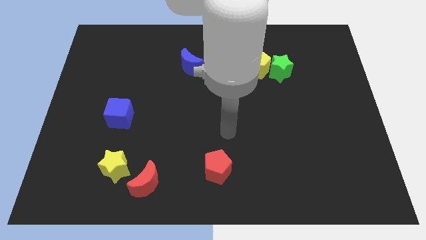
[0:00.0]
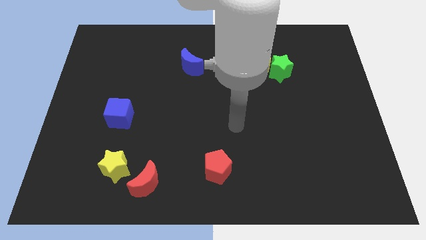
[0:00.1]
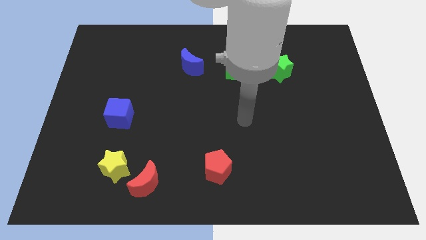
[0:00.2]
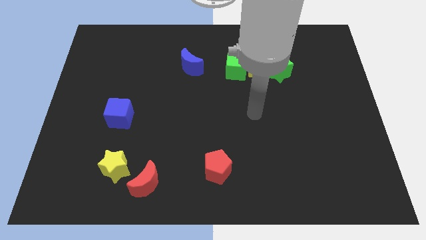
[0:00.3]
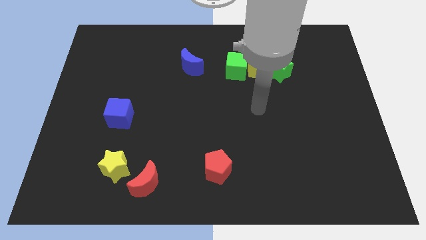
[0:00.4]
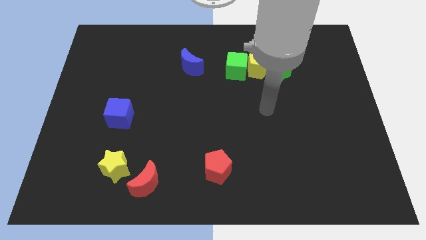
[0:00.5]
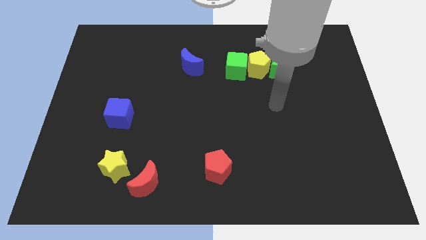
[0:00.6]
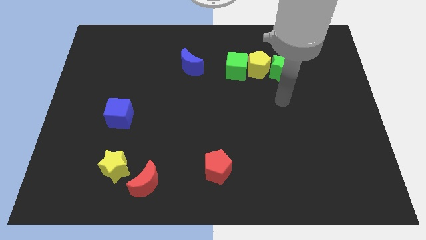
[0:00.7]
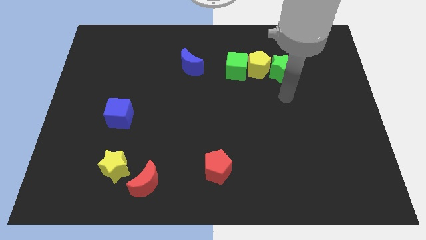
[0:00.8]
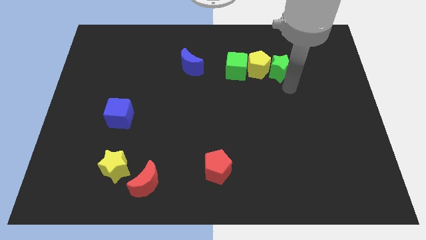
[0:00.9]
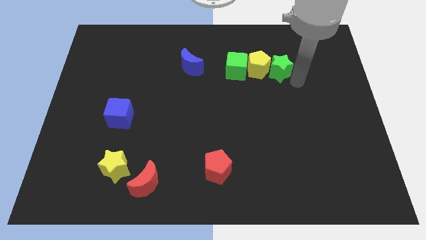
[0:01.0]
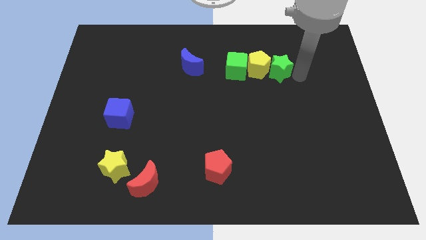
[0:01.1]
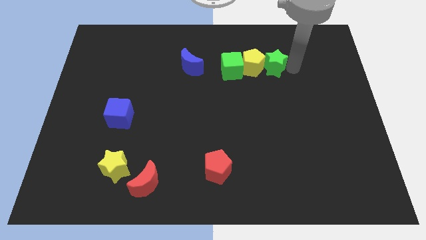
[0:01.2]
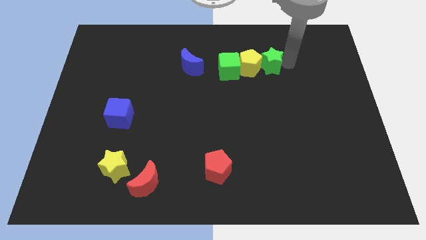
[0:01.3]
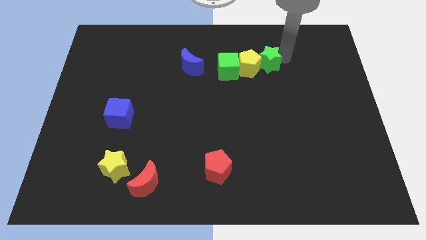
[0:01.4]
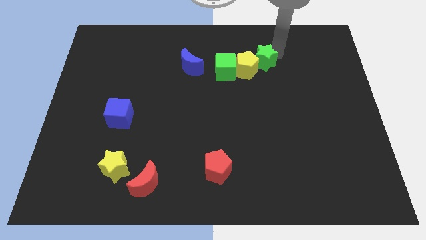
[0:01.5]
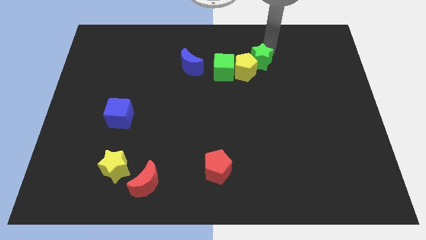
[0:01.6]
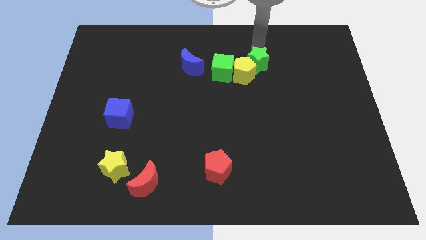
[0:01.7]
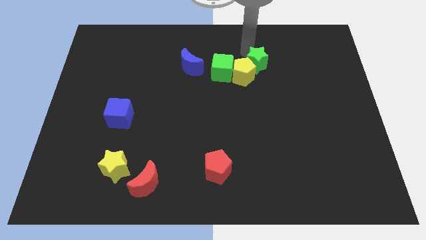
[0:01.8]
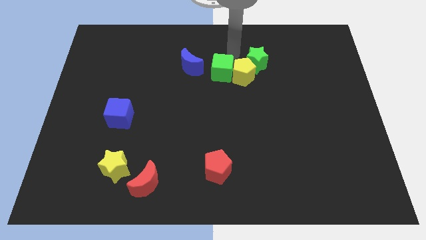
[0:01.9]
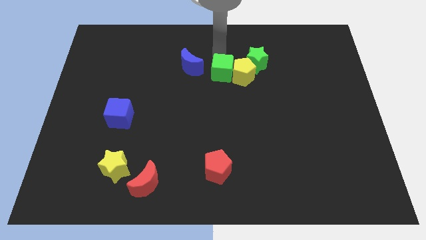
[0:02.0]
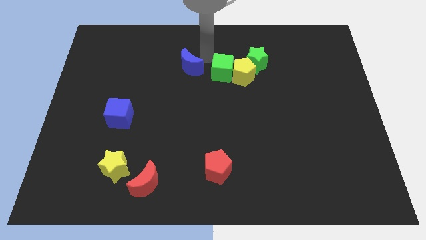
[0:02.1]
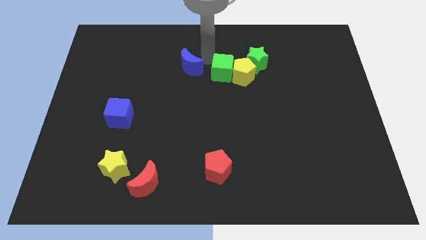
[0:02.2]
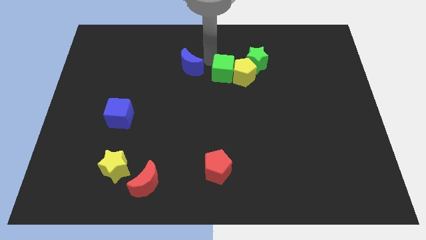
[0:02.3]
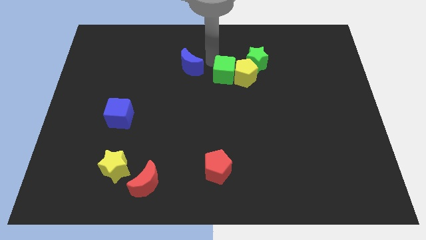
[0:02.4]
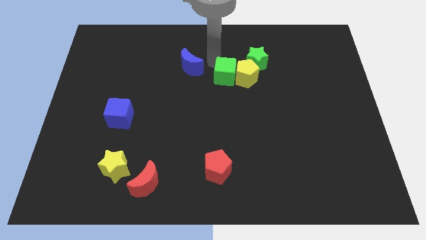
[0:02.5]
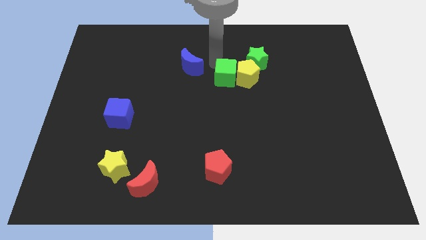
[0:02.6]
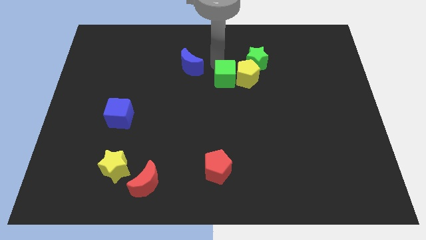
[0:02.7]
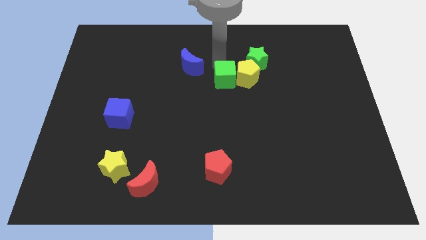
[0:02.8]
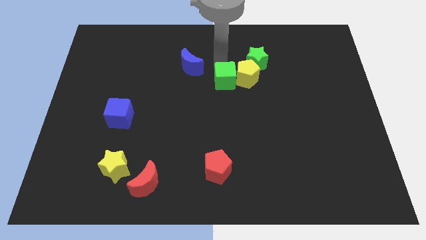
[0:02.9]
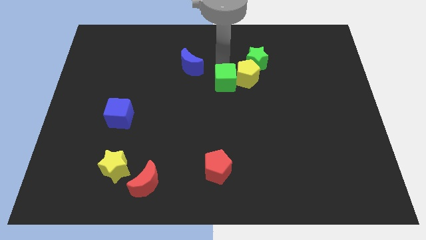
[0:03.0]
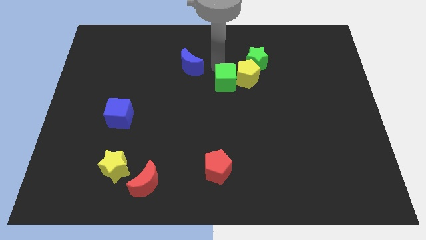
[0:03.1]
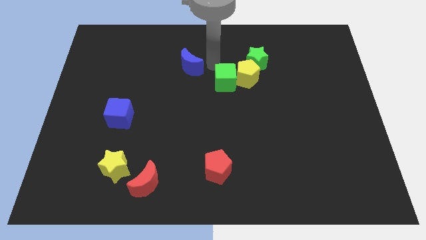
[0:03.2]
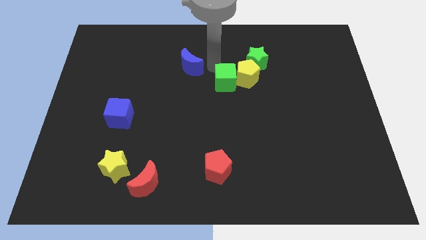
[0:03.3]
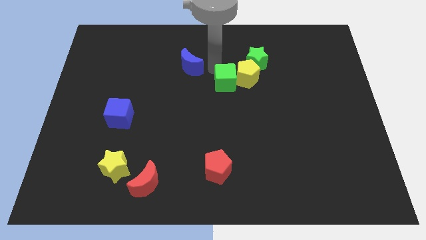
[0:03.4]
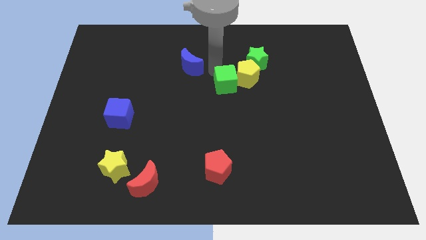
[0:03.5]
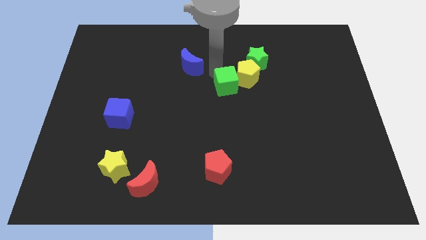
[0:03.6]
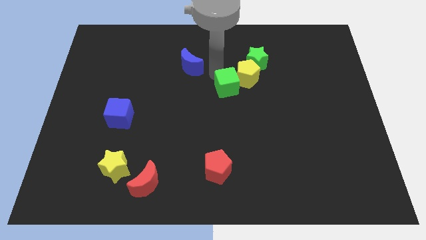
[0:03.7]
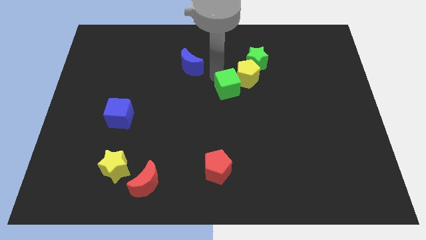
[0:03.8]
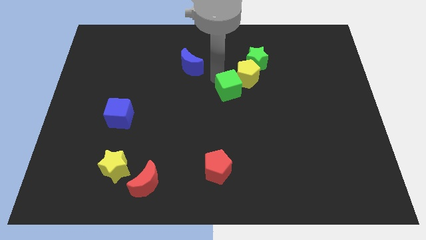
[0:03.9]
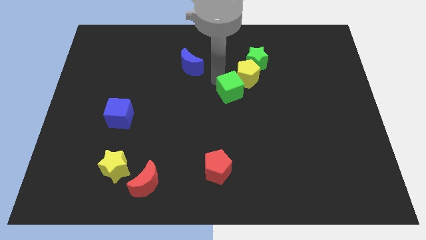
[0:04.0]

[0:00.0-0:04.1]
slide the green cube somewhat downwards

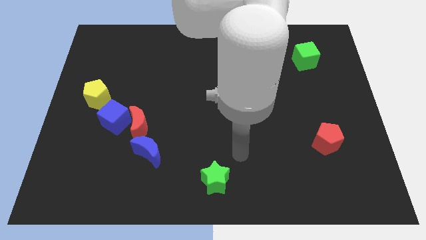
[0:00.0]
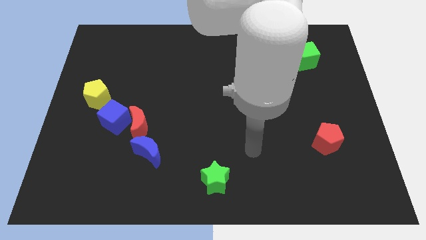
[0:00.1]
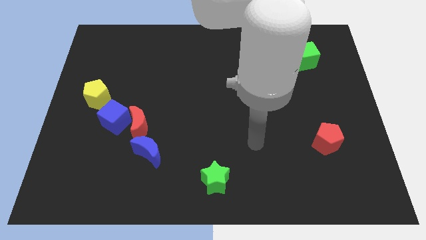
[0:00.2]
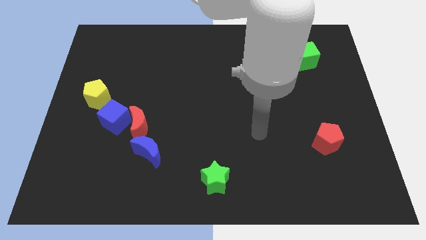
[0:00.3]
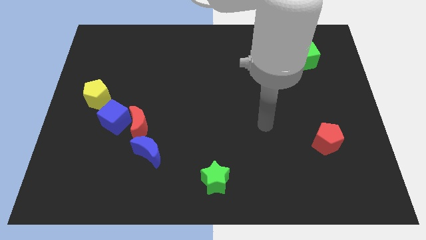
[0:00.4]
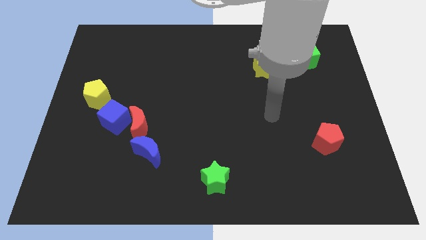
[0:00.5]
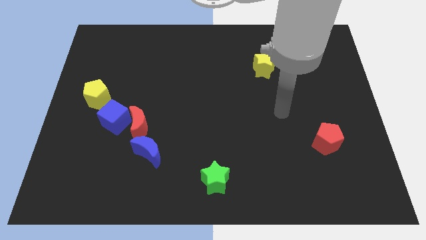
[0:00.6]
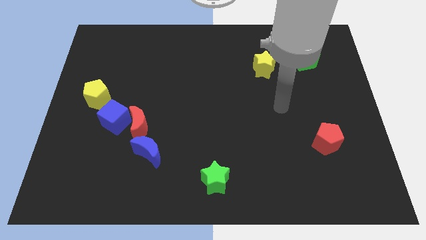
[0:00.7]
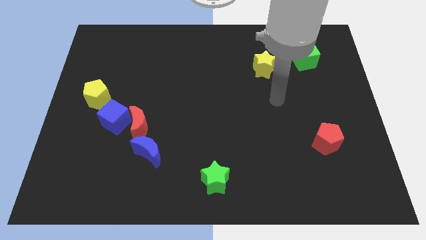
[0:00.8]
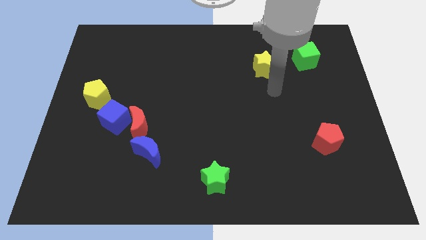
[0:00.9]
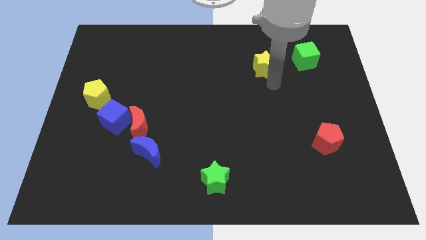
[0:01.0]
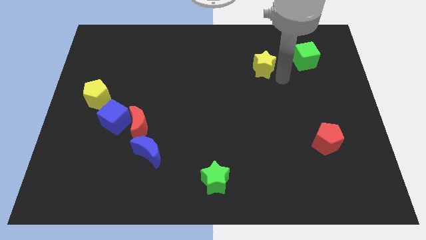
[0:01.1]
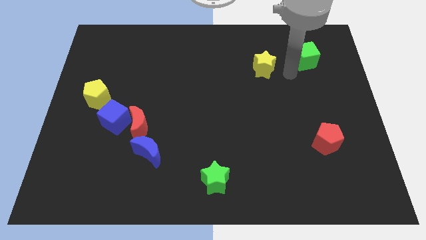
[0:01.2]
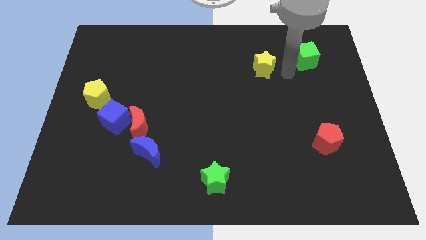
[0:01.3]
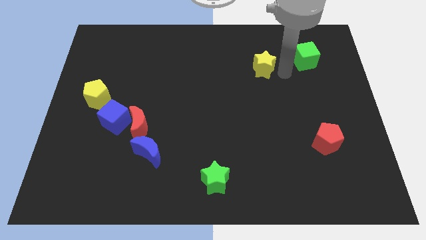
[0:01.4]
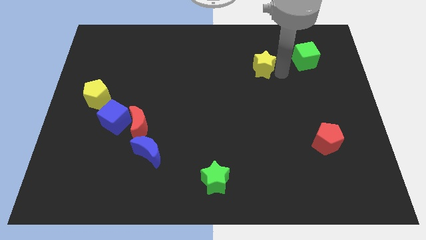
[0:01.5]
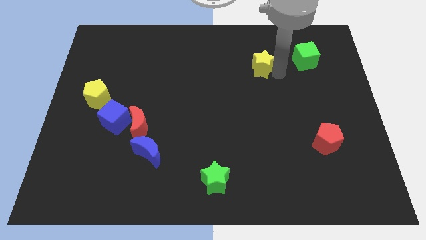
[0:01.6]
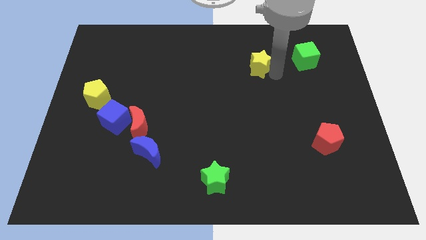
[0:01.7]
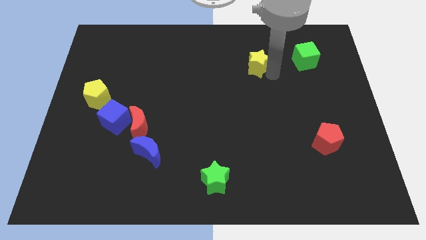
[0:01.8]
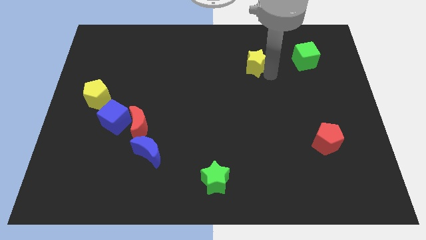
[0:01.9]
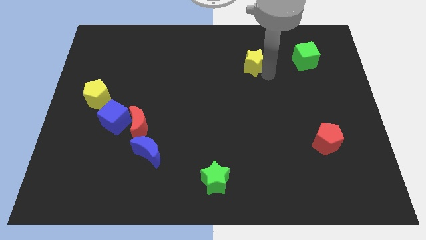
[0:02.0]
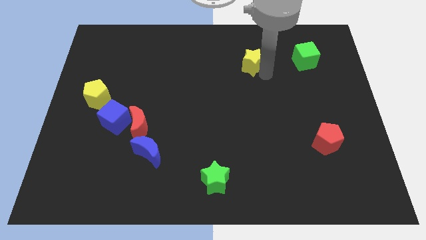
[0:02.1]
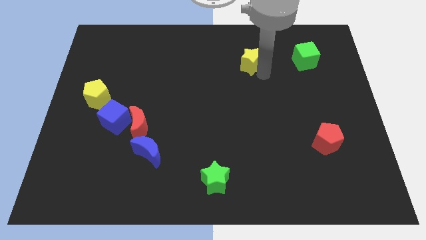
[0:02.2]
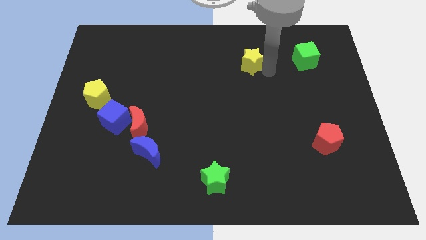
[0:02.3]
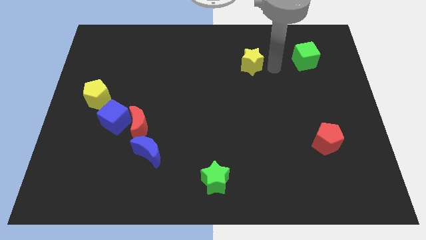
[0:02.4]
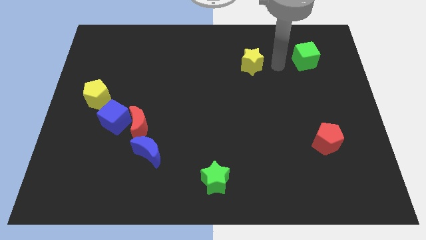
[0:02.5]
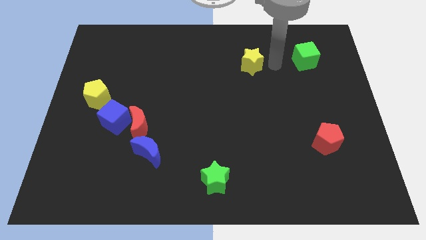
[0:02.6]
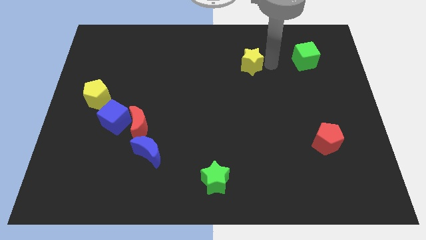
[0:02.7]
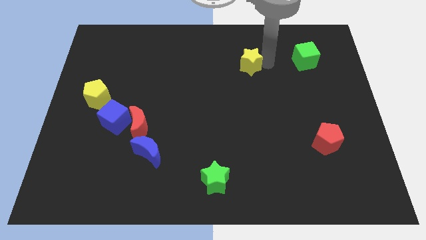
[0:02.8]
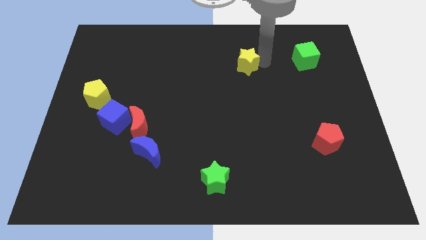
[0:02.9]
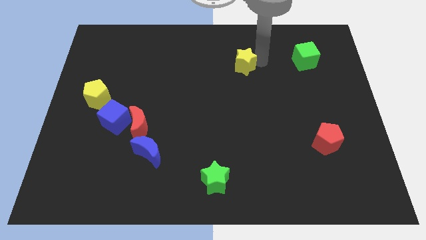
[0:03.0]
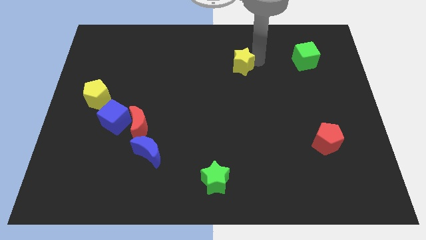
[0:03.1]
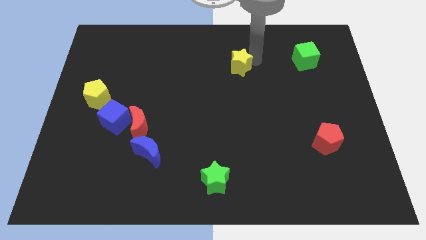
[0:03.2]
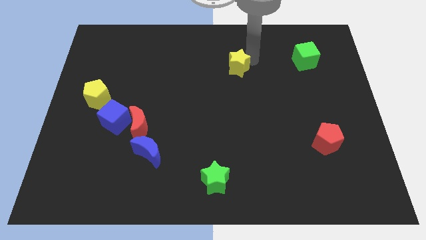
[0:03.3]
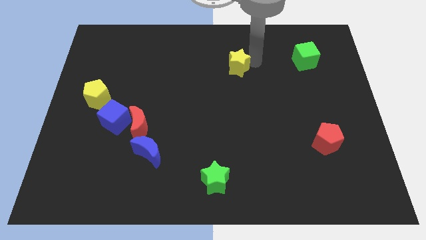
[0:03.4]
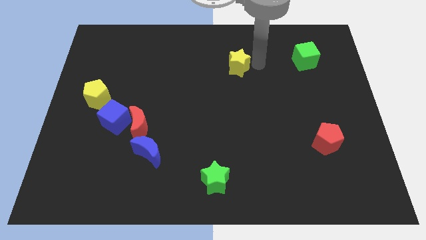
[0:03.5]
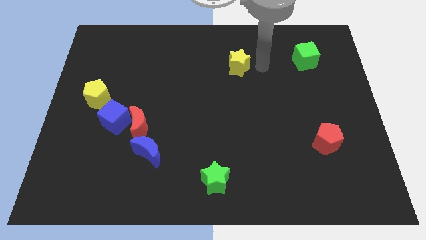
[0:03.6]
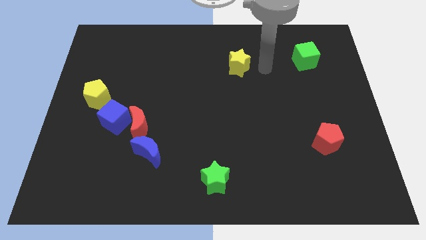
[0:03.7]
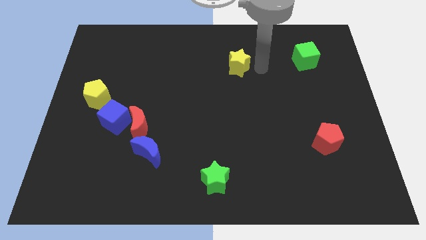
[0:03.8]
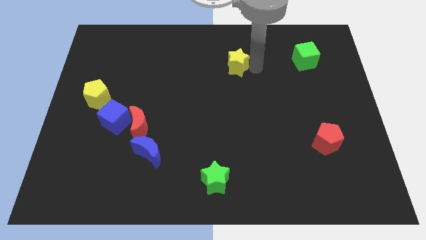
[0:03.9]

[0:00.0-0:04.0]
slightly move the yellow star left
